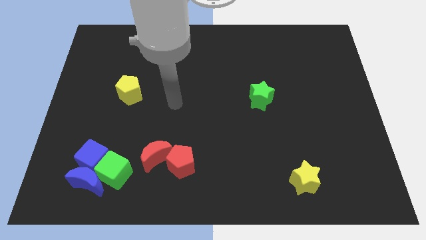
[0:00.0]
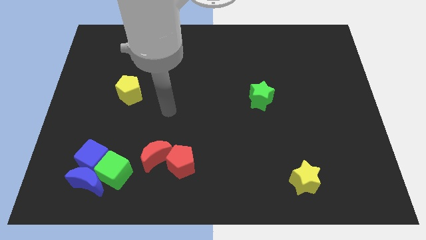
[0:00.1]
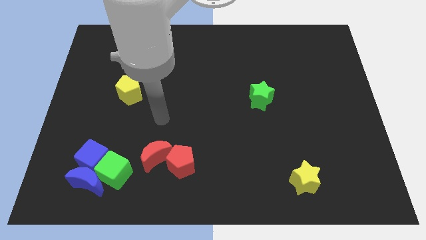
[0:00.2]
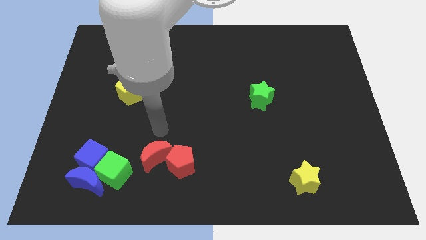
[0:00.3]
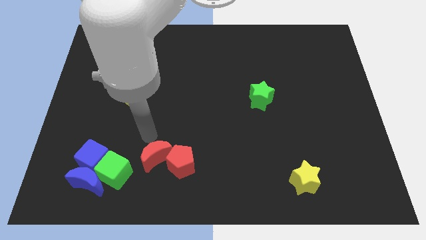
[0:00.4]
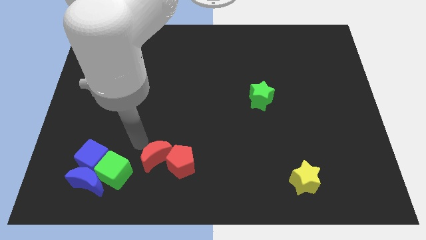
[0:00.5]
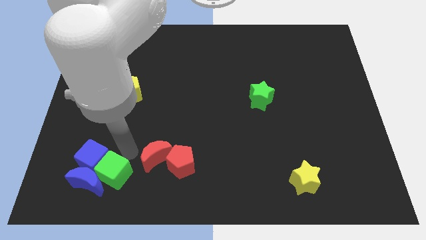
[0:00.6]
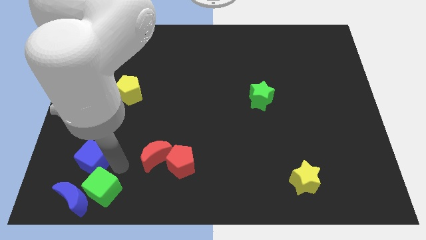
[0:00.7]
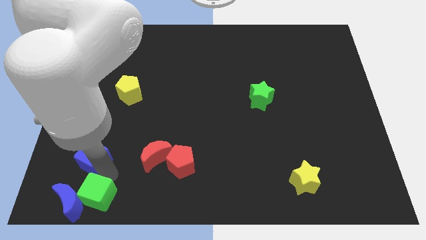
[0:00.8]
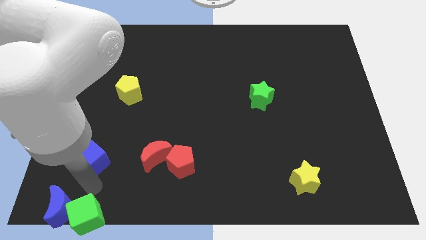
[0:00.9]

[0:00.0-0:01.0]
pull the blue cube apart from the blue moon and green cube

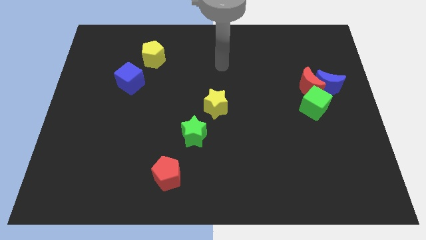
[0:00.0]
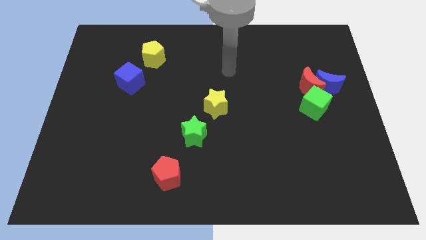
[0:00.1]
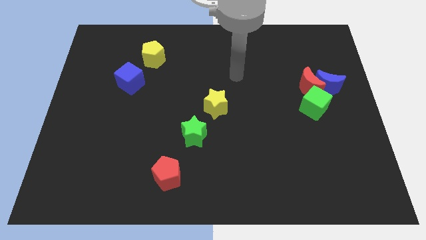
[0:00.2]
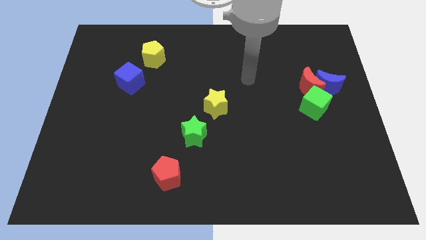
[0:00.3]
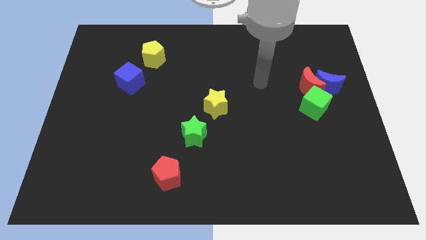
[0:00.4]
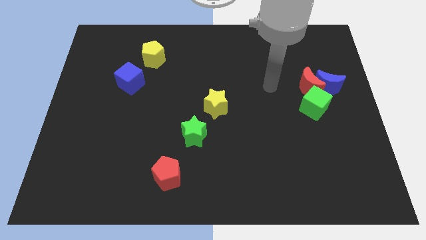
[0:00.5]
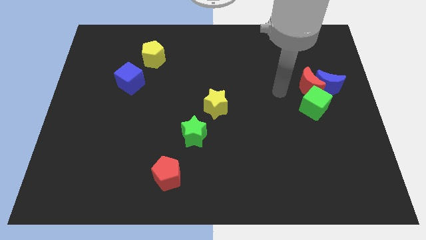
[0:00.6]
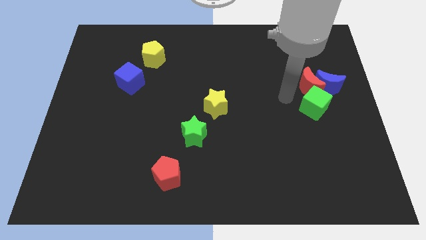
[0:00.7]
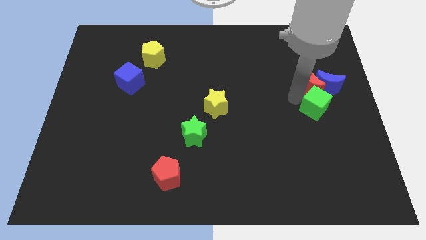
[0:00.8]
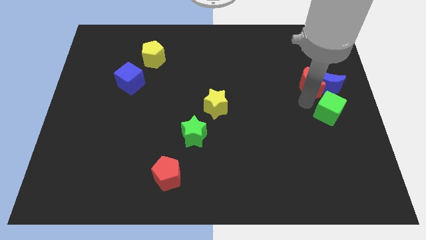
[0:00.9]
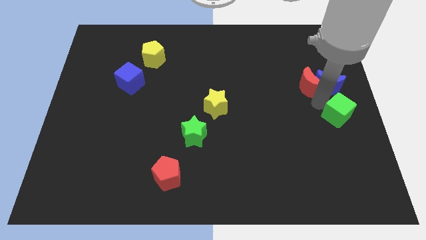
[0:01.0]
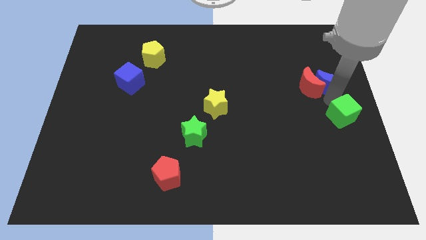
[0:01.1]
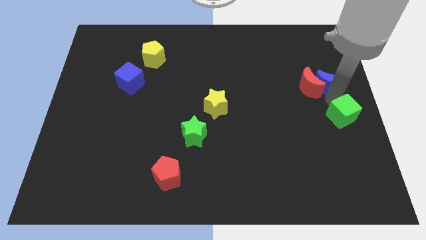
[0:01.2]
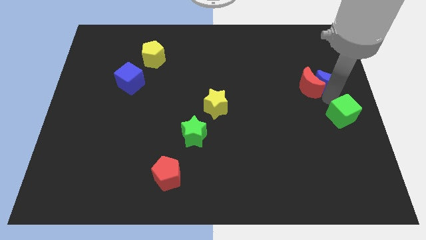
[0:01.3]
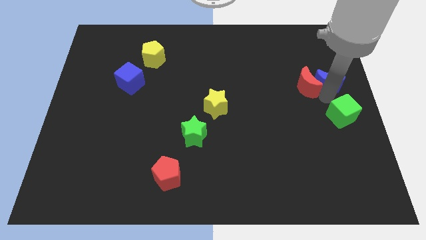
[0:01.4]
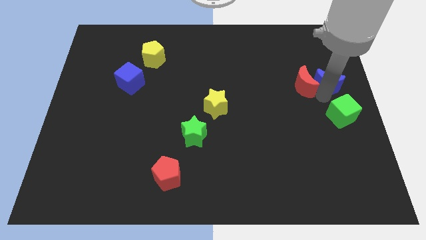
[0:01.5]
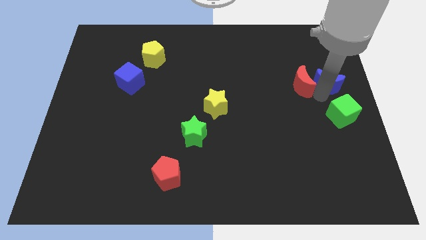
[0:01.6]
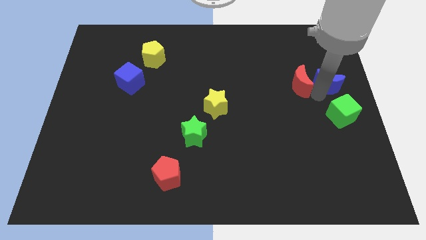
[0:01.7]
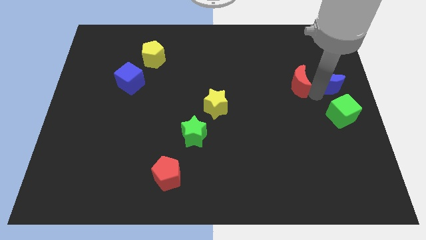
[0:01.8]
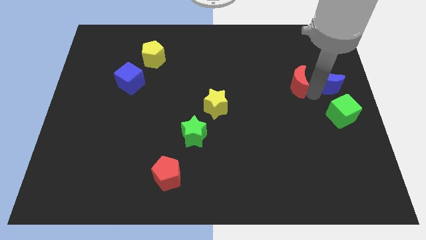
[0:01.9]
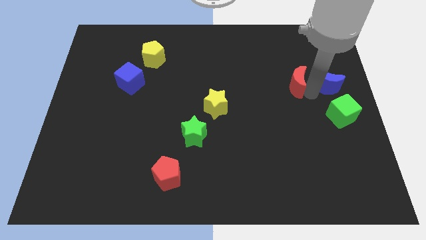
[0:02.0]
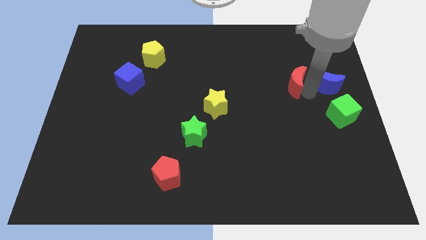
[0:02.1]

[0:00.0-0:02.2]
move the red moon away from the blue moon and green cube

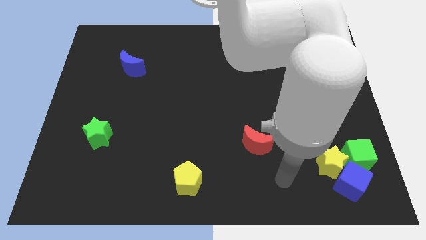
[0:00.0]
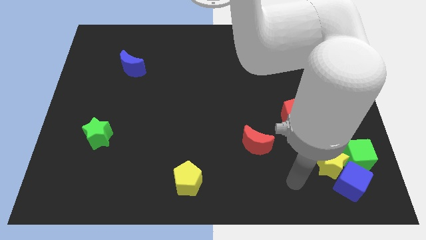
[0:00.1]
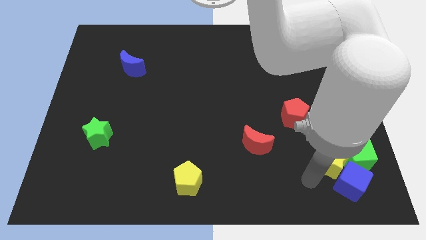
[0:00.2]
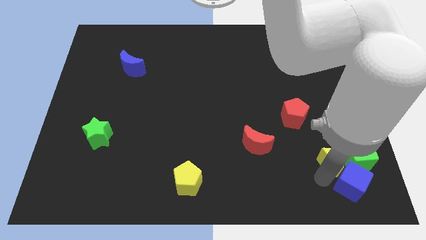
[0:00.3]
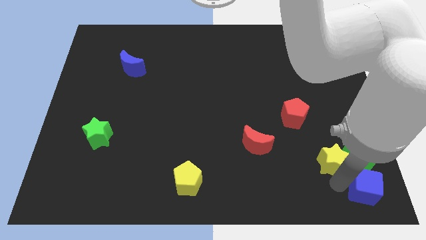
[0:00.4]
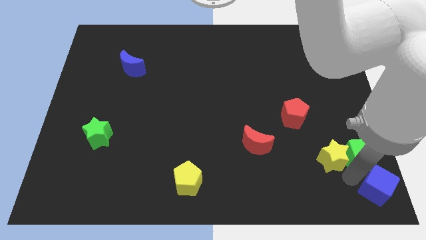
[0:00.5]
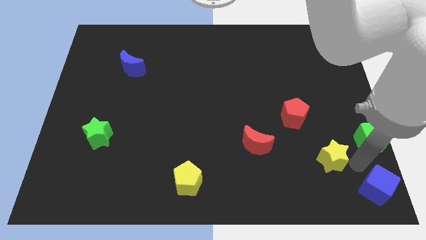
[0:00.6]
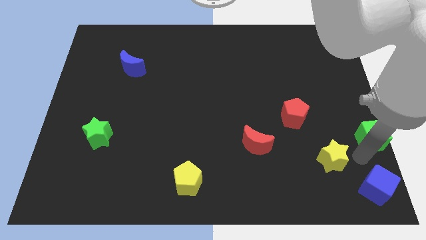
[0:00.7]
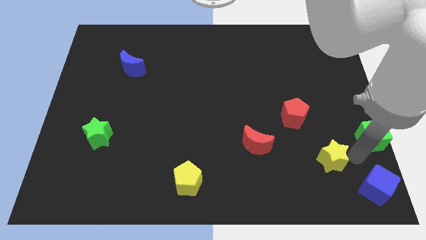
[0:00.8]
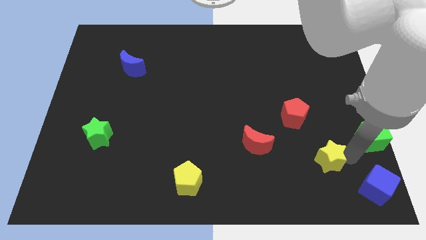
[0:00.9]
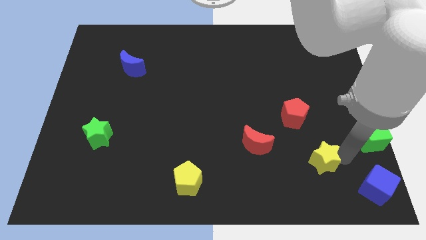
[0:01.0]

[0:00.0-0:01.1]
separate the yellow star from the blue cube and green cube

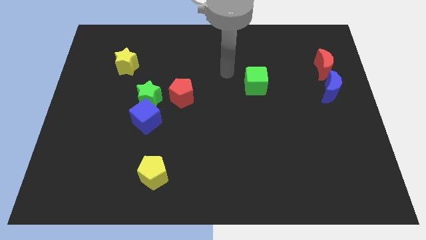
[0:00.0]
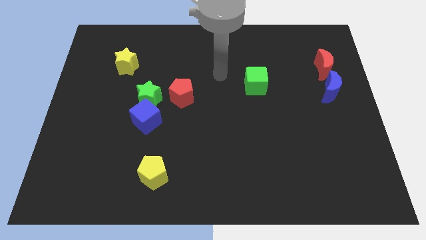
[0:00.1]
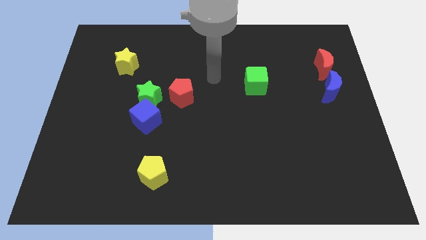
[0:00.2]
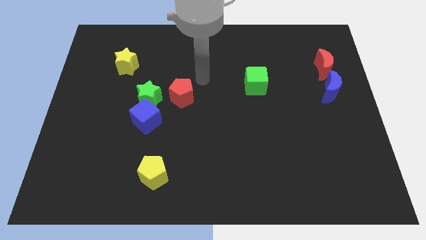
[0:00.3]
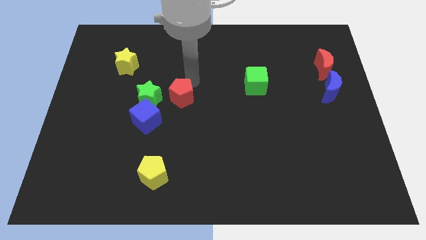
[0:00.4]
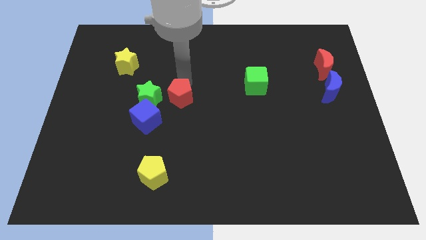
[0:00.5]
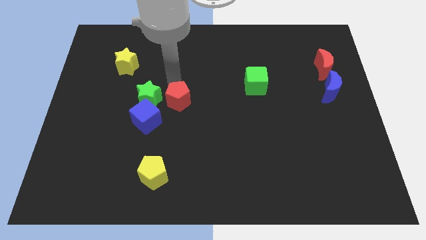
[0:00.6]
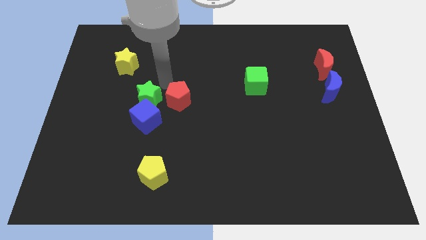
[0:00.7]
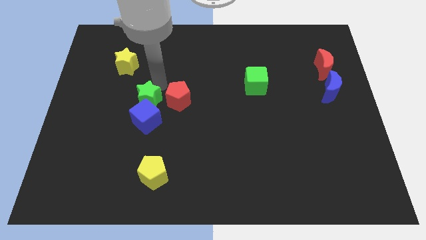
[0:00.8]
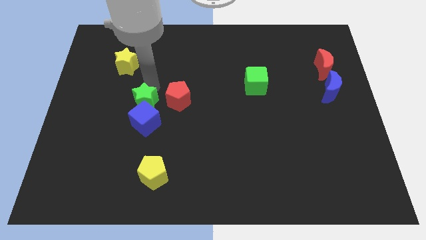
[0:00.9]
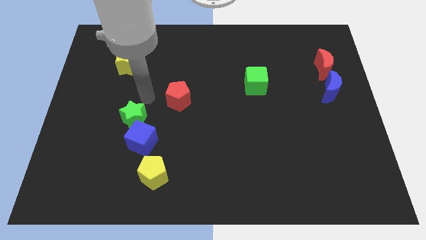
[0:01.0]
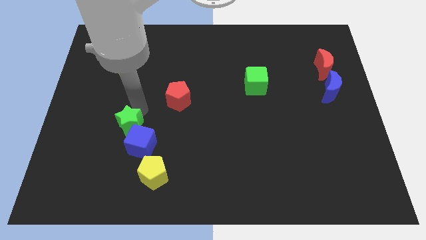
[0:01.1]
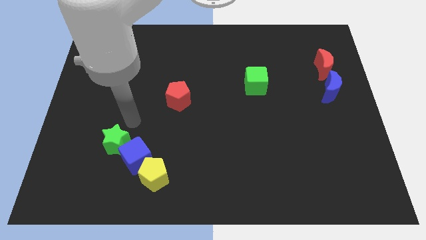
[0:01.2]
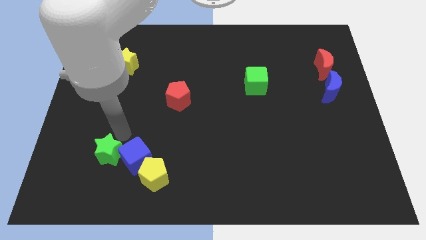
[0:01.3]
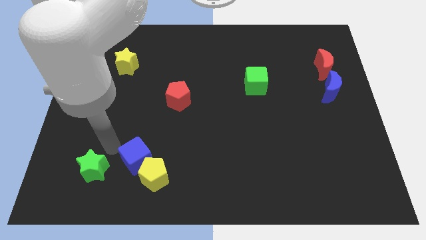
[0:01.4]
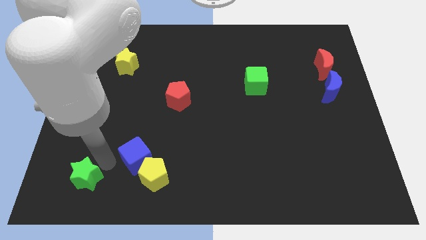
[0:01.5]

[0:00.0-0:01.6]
separate the blue cube from the green star

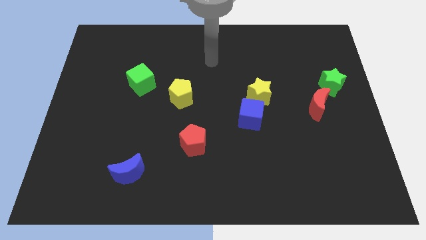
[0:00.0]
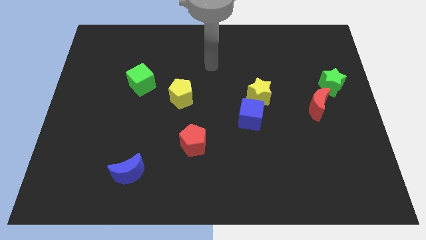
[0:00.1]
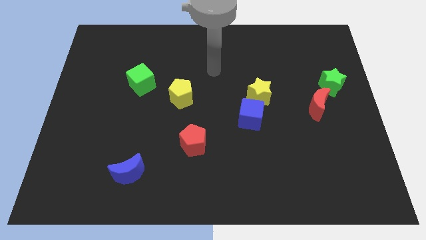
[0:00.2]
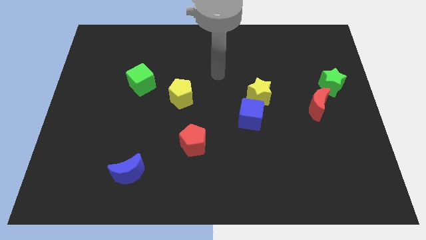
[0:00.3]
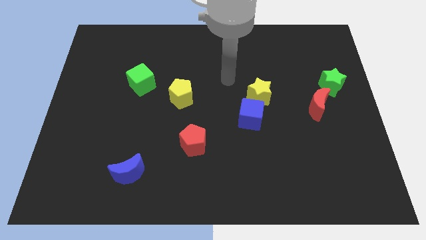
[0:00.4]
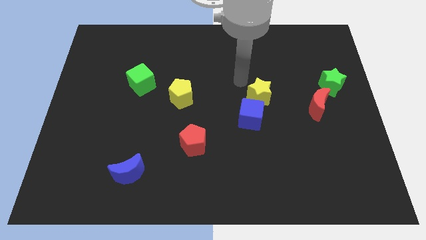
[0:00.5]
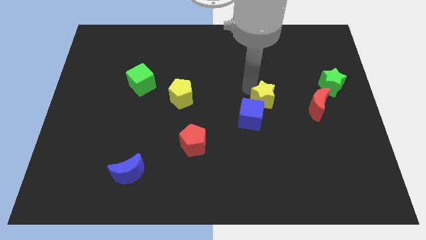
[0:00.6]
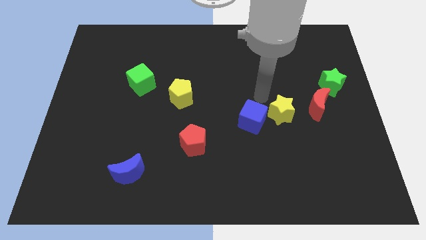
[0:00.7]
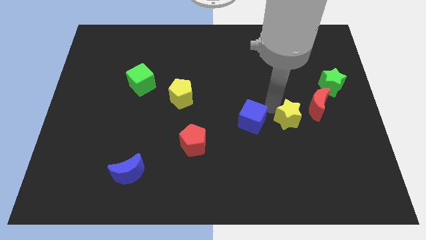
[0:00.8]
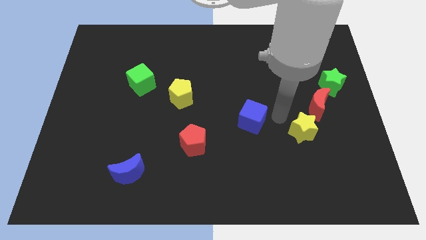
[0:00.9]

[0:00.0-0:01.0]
pull the blue cube apart from the yellow star

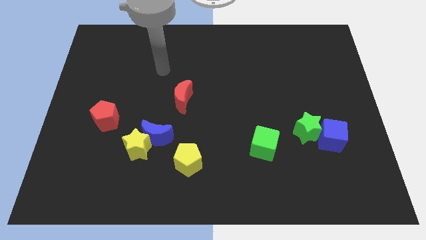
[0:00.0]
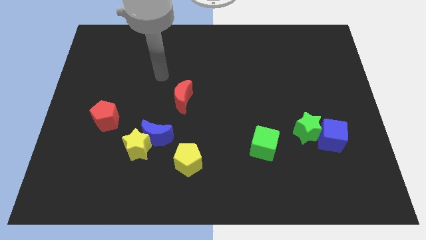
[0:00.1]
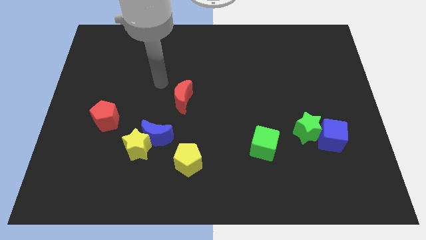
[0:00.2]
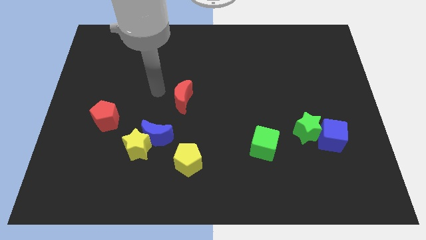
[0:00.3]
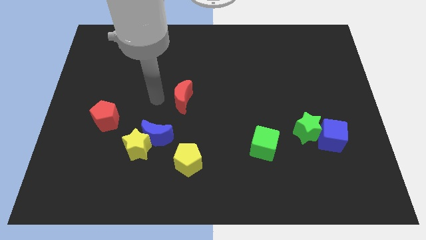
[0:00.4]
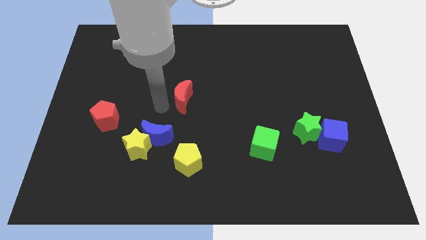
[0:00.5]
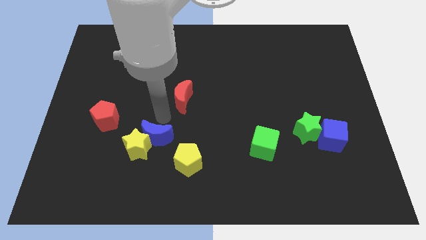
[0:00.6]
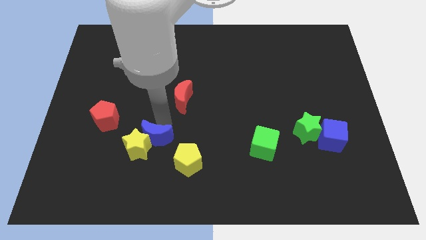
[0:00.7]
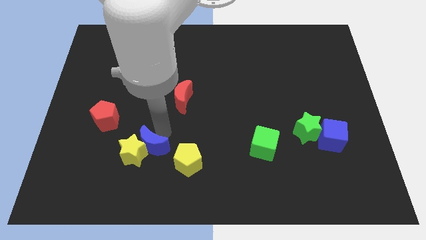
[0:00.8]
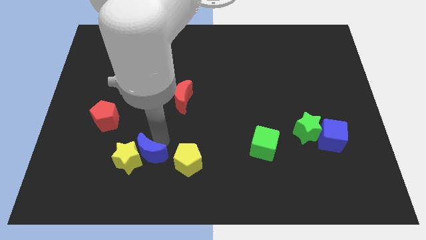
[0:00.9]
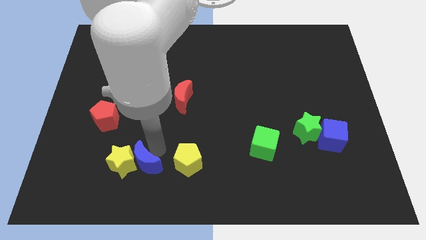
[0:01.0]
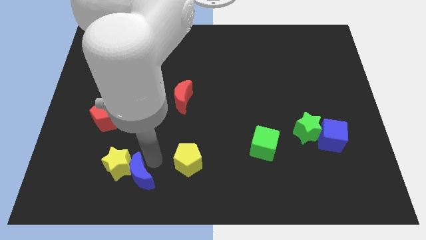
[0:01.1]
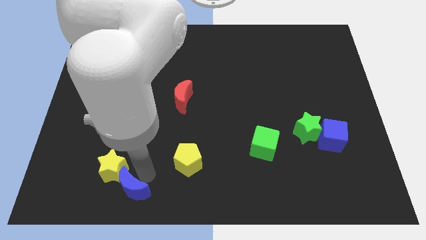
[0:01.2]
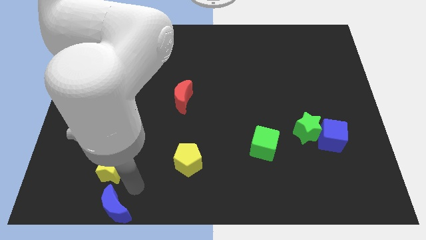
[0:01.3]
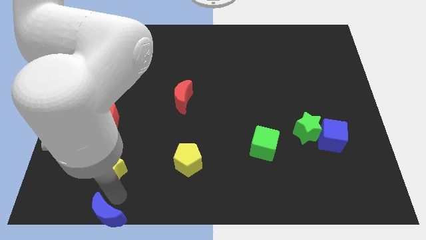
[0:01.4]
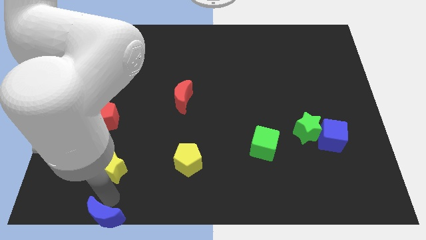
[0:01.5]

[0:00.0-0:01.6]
move the yellow star away from the blue moon

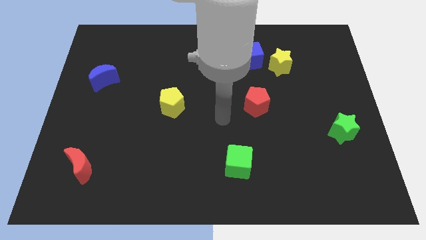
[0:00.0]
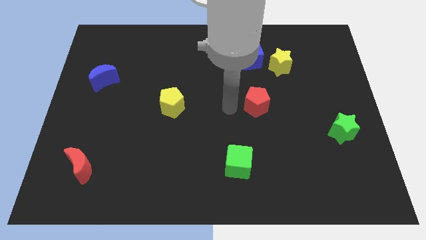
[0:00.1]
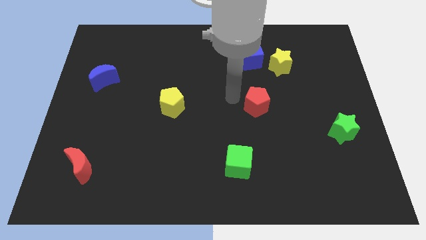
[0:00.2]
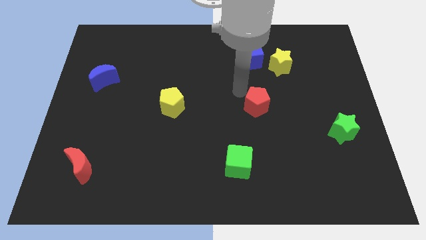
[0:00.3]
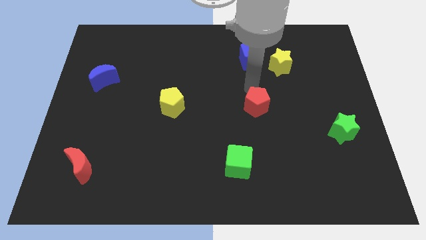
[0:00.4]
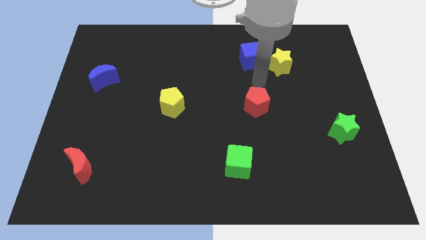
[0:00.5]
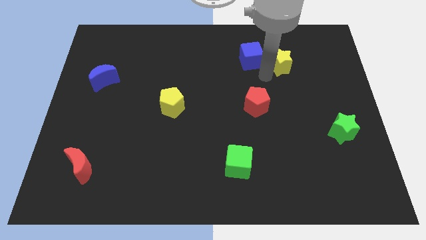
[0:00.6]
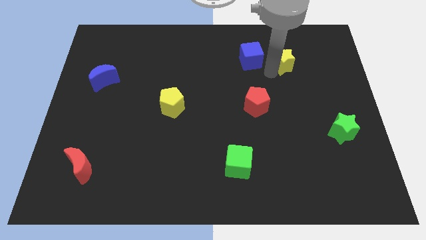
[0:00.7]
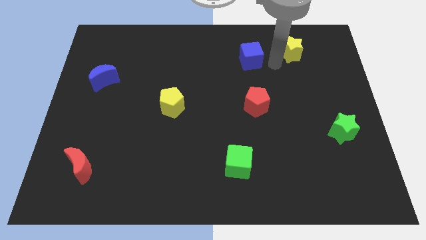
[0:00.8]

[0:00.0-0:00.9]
move the blue cube away from the yellow star
